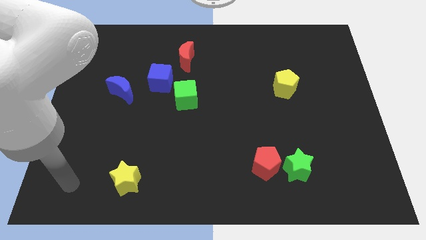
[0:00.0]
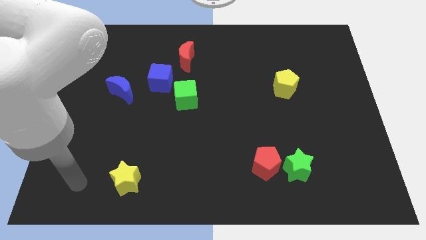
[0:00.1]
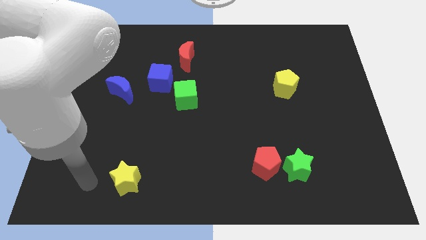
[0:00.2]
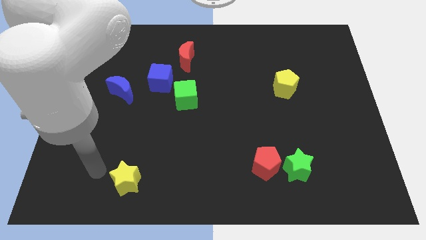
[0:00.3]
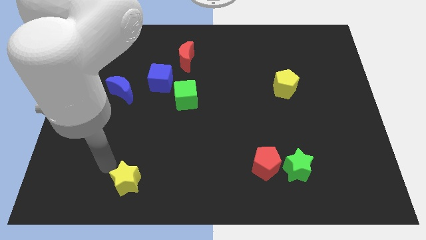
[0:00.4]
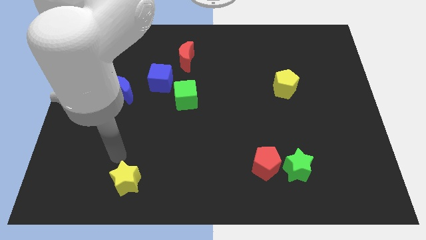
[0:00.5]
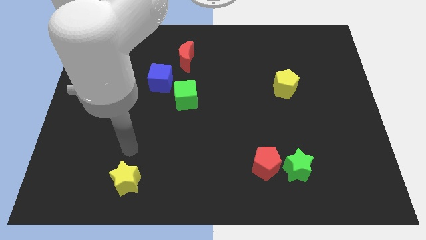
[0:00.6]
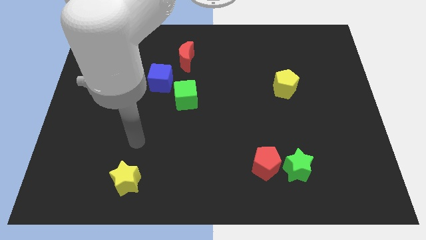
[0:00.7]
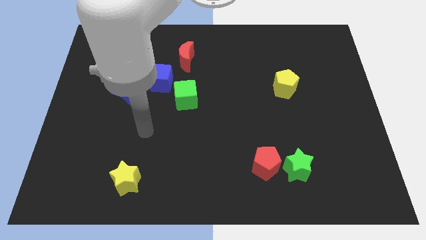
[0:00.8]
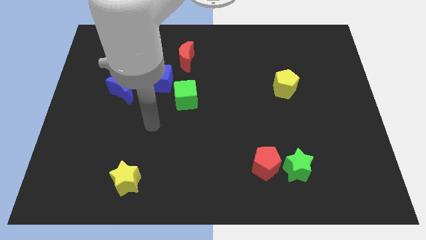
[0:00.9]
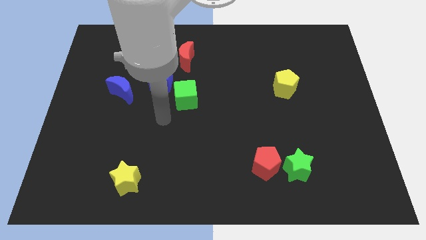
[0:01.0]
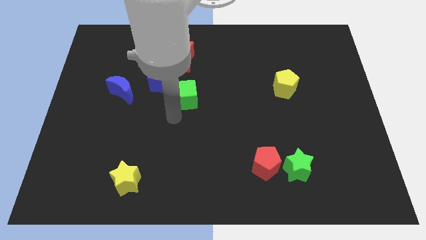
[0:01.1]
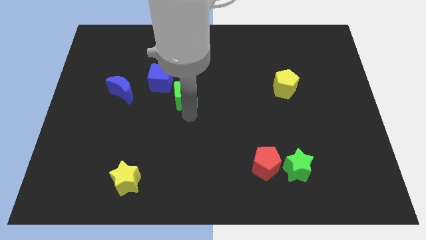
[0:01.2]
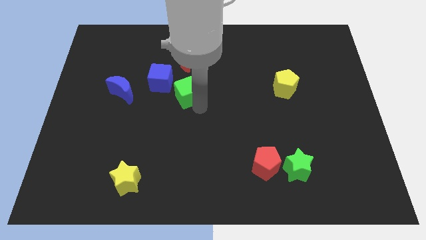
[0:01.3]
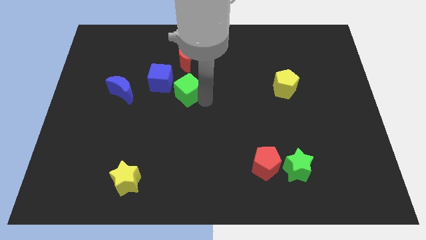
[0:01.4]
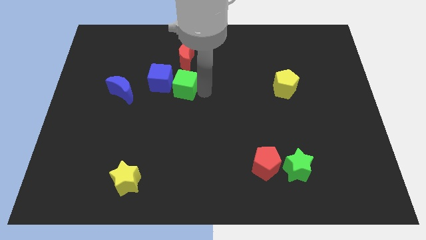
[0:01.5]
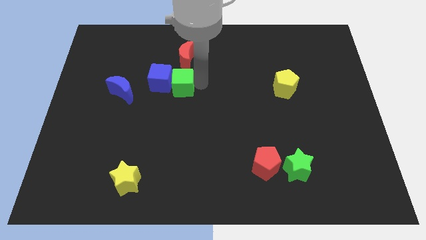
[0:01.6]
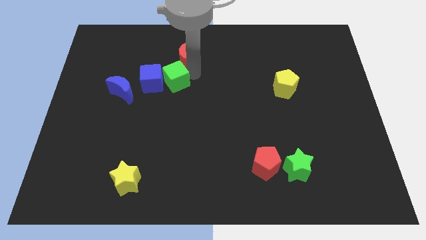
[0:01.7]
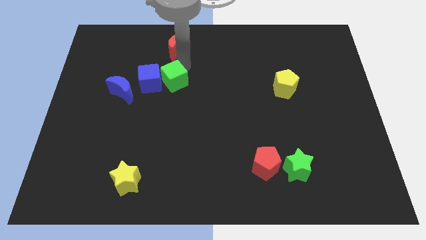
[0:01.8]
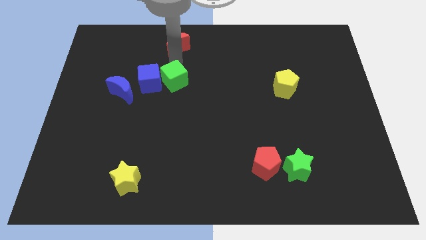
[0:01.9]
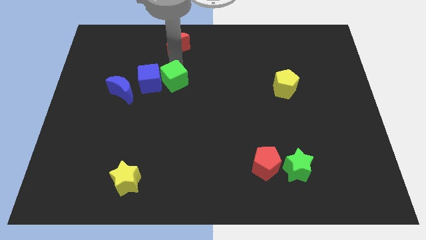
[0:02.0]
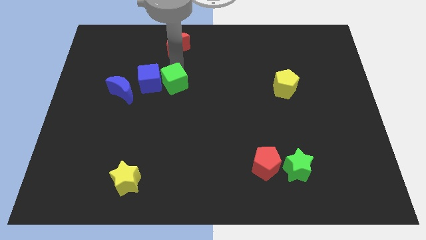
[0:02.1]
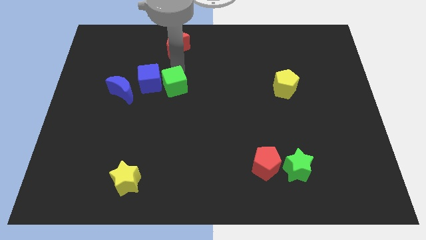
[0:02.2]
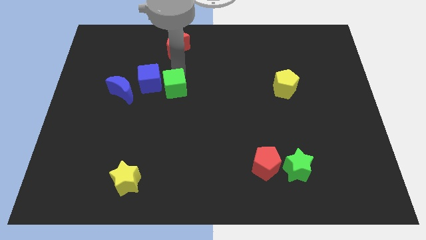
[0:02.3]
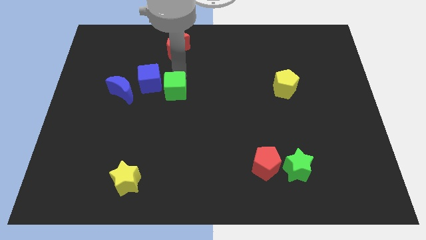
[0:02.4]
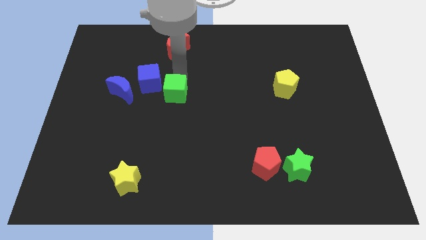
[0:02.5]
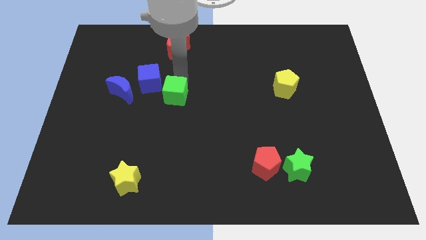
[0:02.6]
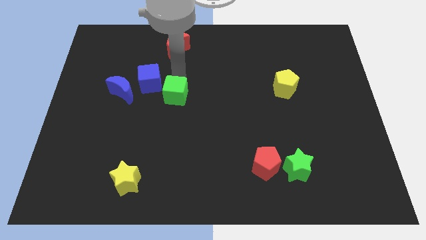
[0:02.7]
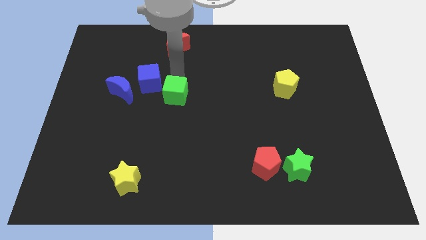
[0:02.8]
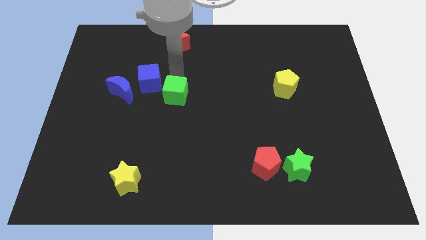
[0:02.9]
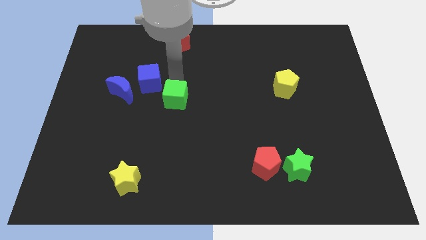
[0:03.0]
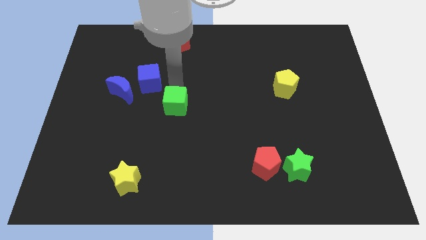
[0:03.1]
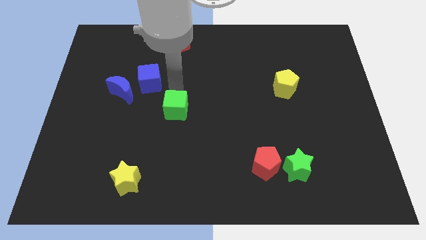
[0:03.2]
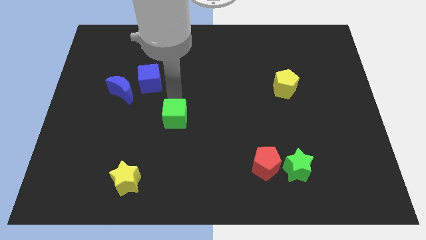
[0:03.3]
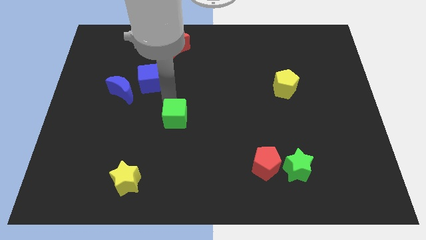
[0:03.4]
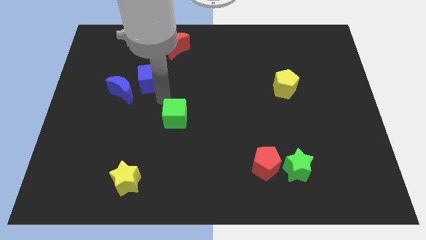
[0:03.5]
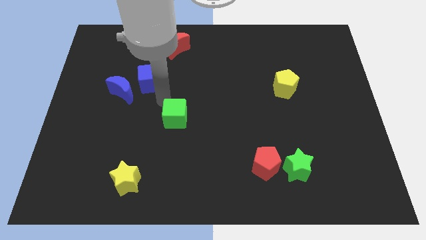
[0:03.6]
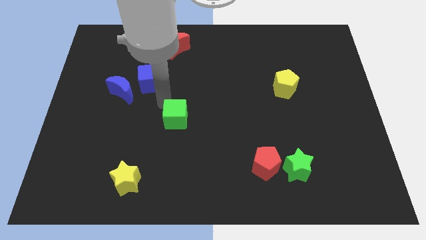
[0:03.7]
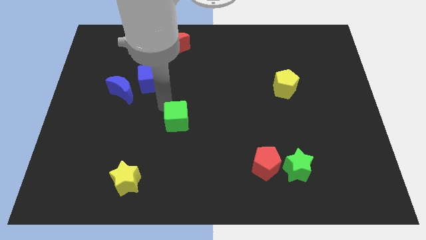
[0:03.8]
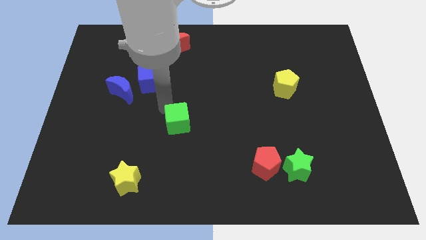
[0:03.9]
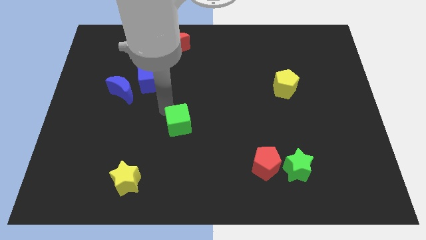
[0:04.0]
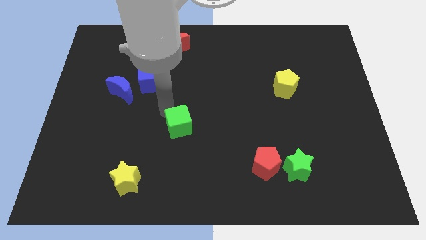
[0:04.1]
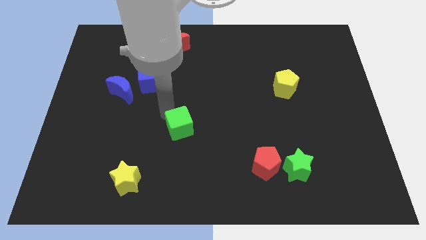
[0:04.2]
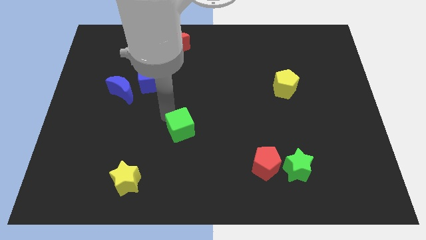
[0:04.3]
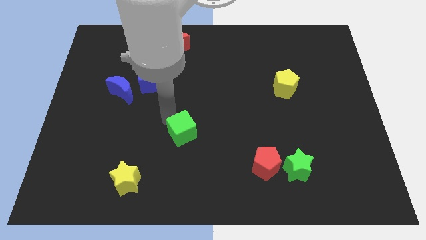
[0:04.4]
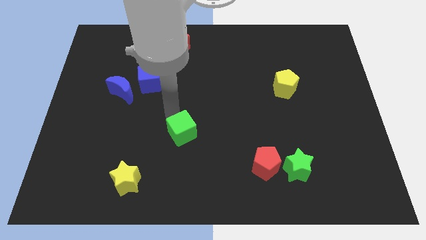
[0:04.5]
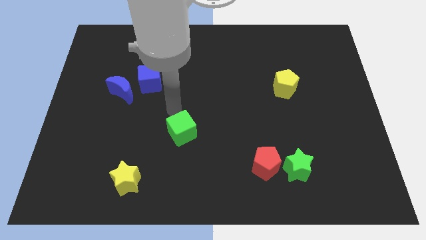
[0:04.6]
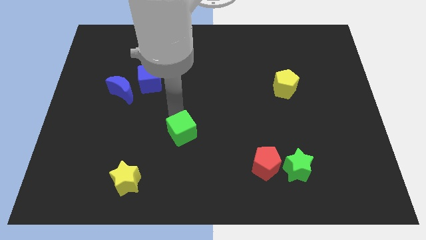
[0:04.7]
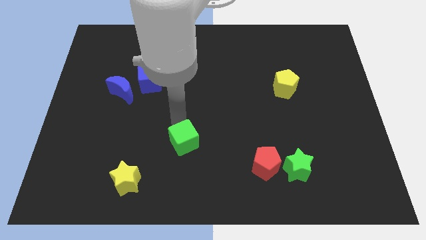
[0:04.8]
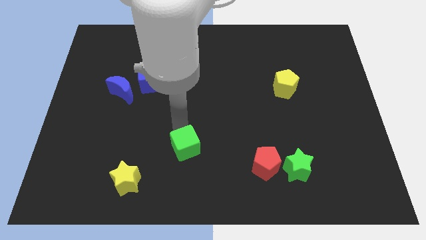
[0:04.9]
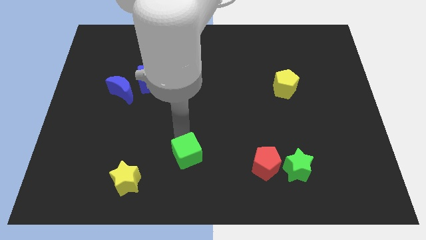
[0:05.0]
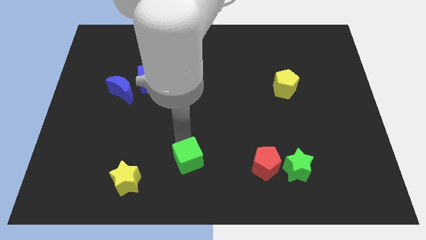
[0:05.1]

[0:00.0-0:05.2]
push the green cube to the bottom side

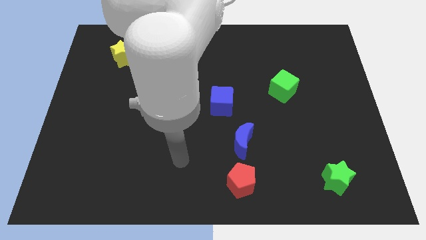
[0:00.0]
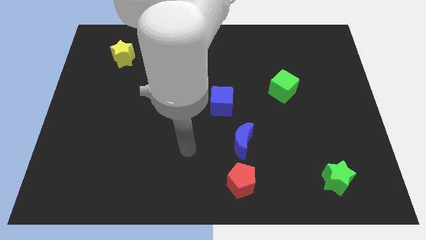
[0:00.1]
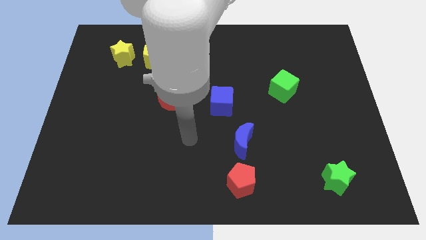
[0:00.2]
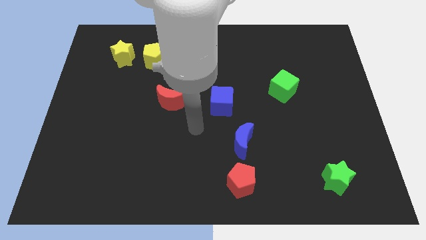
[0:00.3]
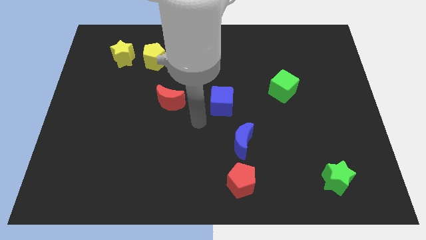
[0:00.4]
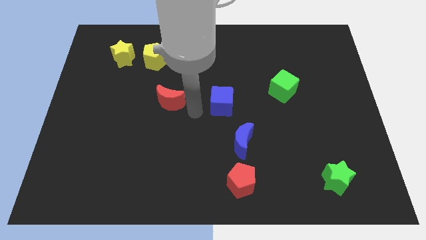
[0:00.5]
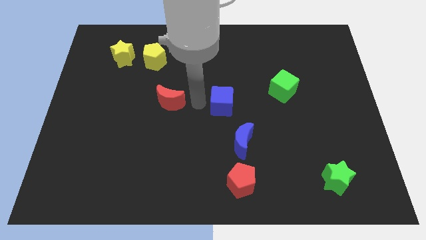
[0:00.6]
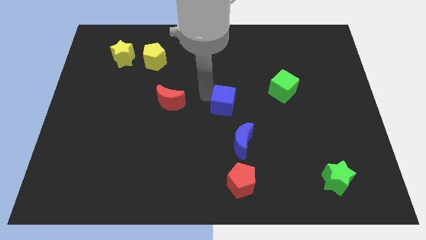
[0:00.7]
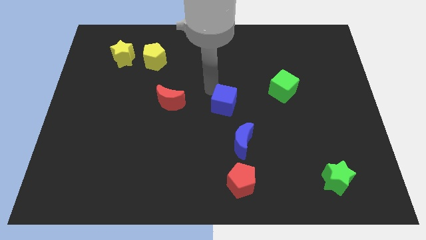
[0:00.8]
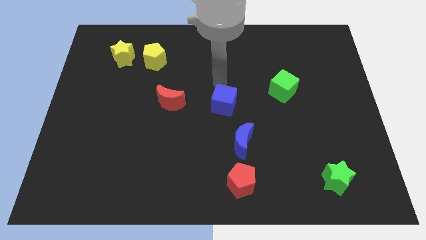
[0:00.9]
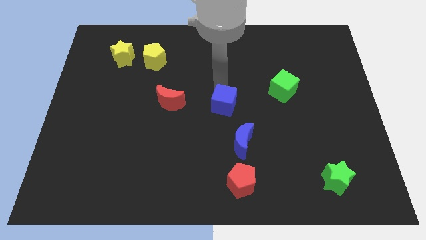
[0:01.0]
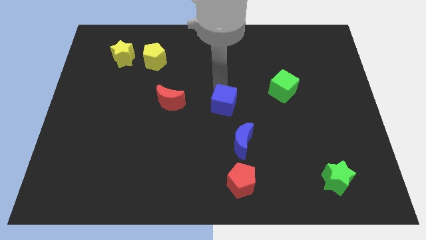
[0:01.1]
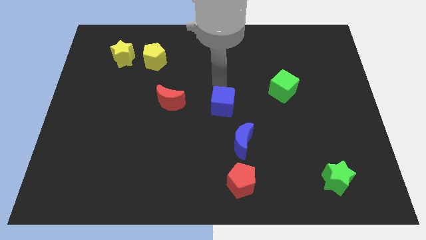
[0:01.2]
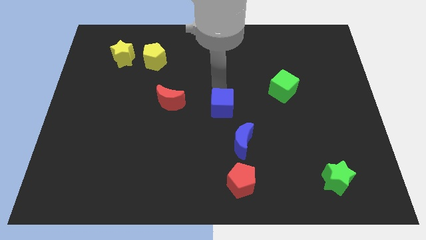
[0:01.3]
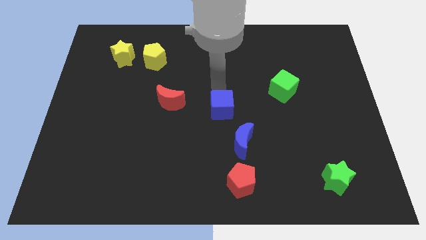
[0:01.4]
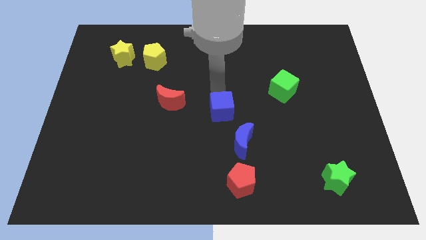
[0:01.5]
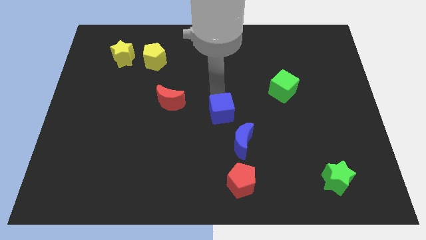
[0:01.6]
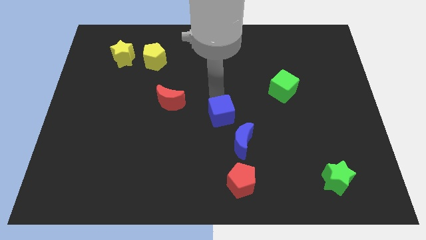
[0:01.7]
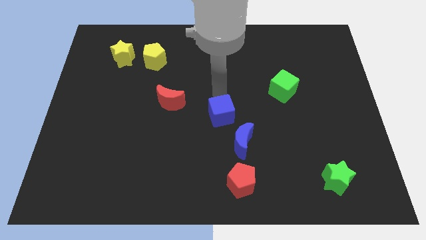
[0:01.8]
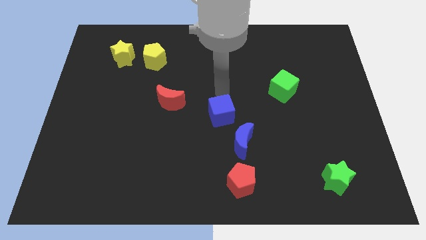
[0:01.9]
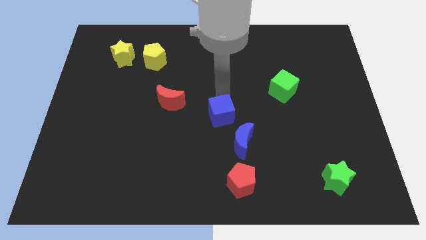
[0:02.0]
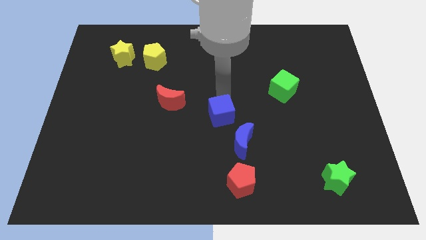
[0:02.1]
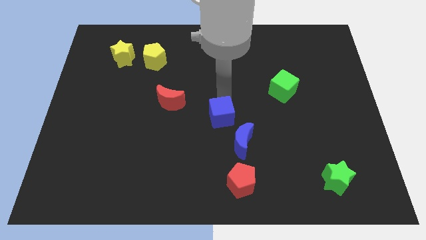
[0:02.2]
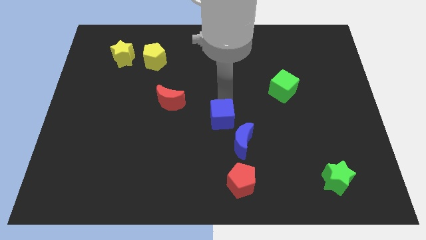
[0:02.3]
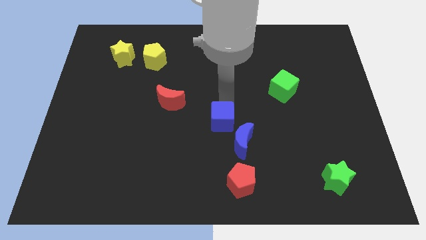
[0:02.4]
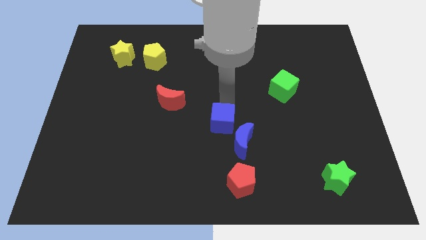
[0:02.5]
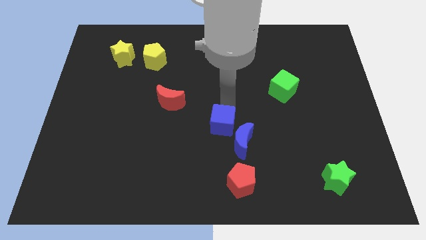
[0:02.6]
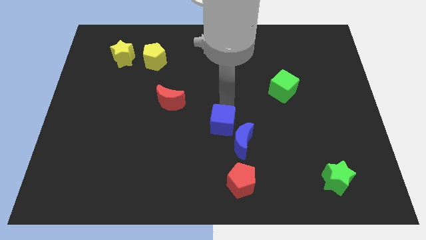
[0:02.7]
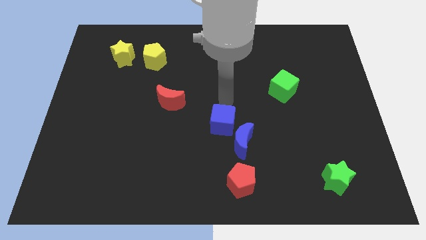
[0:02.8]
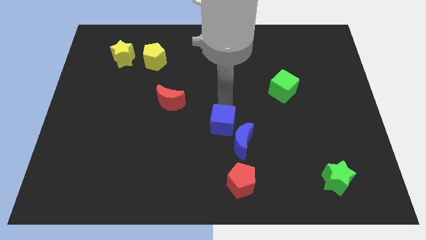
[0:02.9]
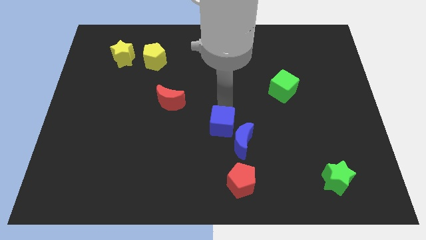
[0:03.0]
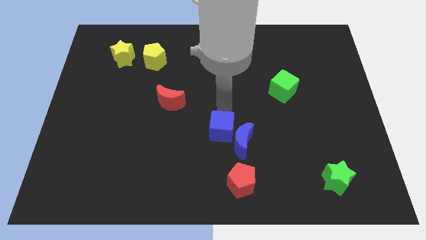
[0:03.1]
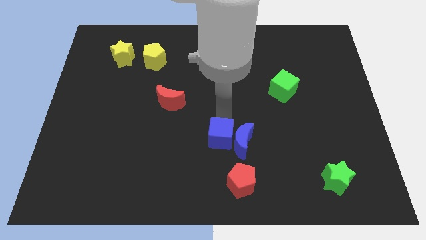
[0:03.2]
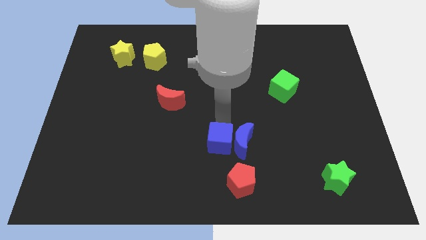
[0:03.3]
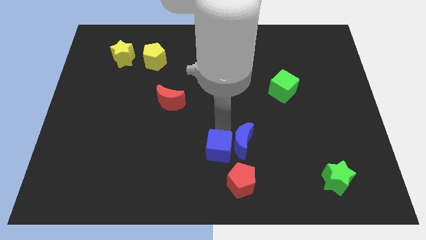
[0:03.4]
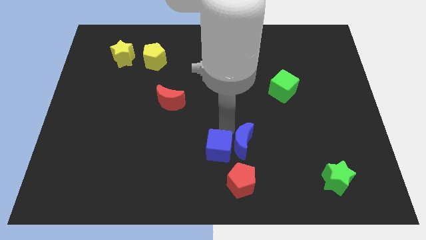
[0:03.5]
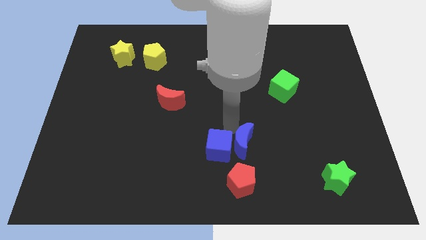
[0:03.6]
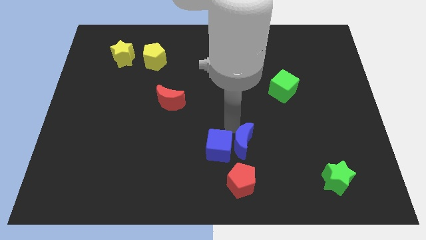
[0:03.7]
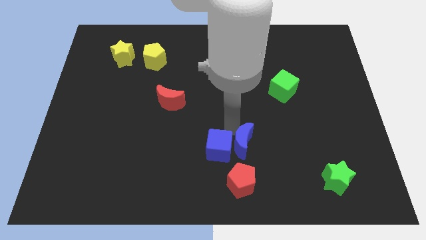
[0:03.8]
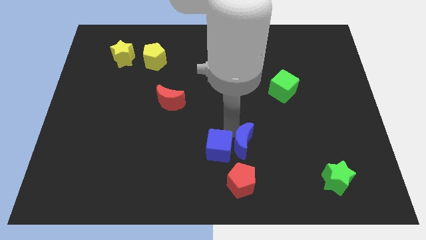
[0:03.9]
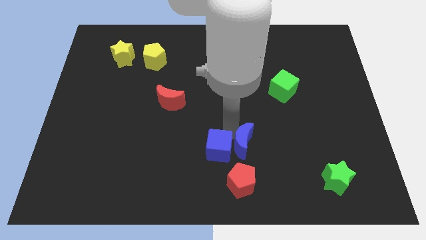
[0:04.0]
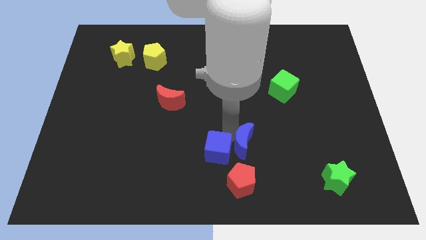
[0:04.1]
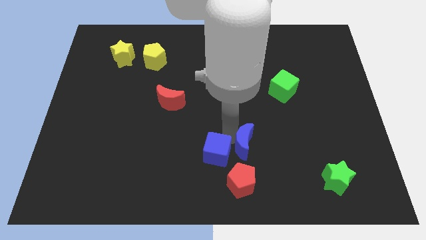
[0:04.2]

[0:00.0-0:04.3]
put the blue cube to the bottom side
